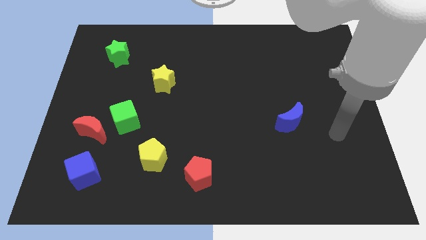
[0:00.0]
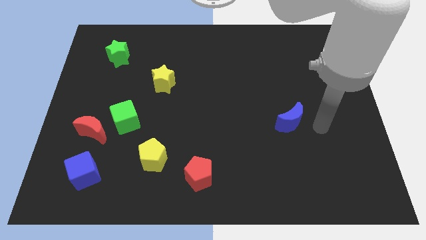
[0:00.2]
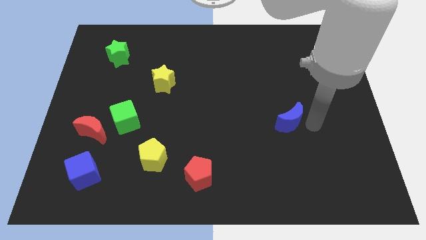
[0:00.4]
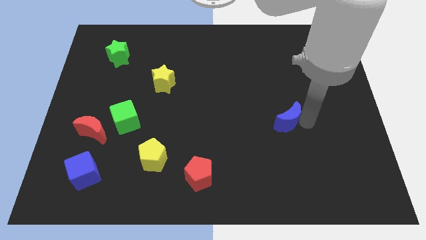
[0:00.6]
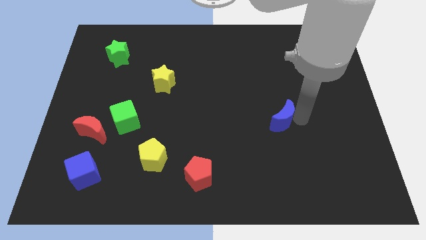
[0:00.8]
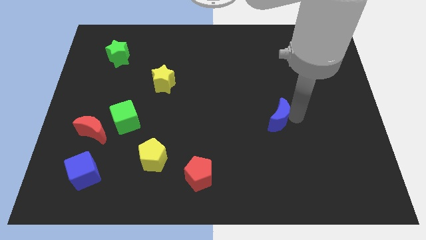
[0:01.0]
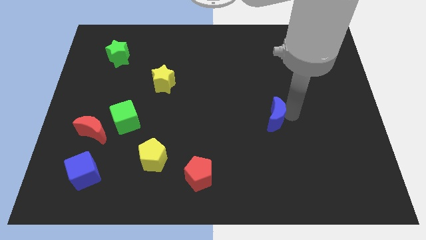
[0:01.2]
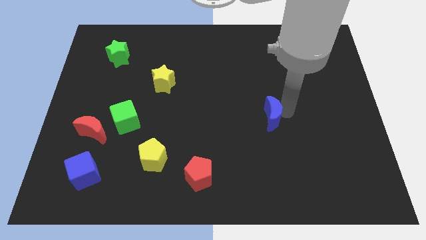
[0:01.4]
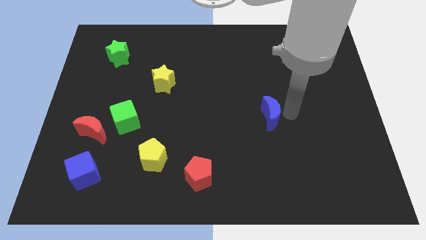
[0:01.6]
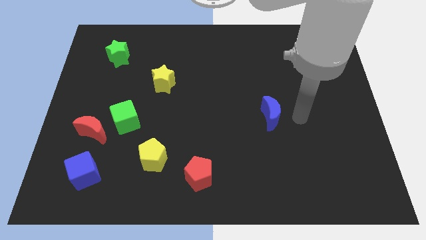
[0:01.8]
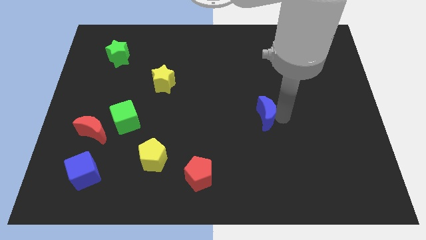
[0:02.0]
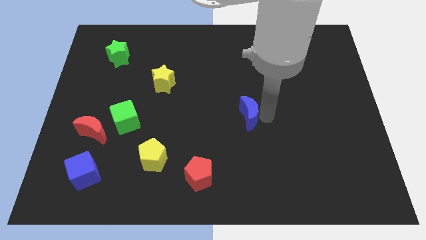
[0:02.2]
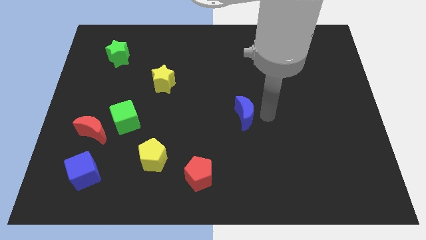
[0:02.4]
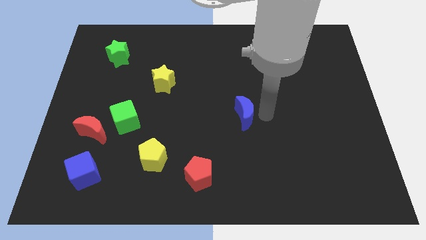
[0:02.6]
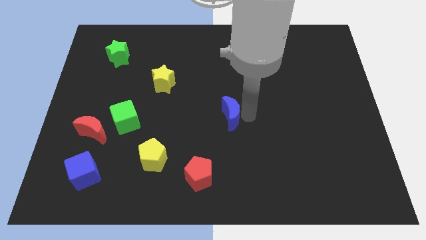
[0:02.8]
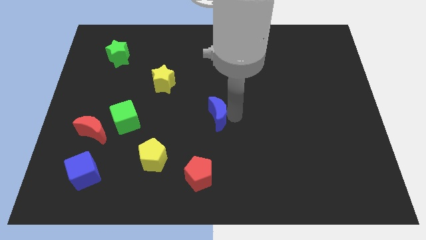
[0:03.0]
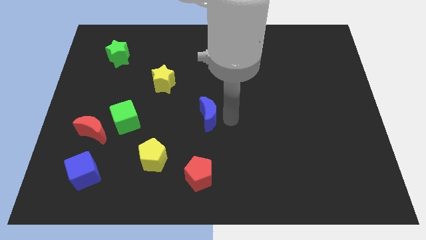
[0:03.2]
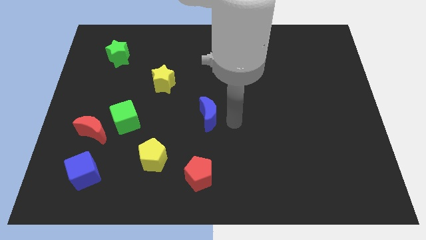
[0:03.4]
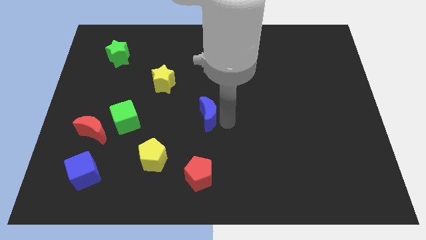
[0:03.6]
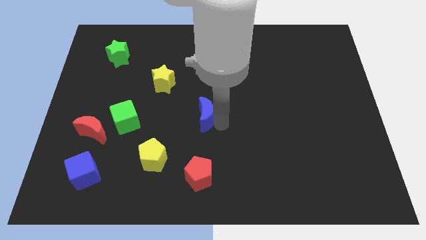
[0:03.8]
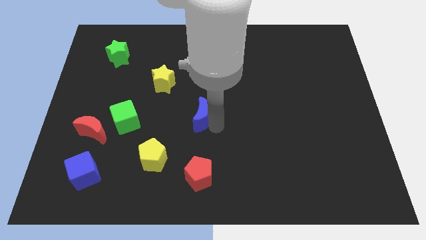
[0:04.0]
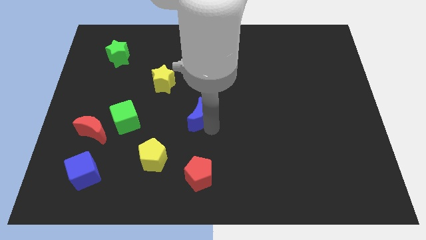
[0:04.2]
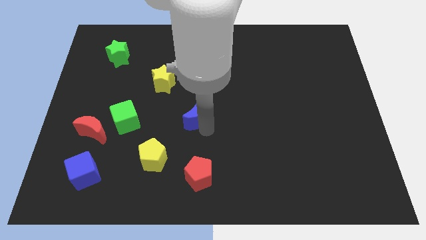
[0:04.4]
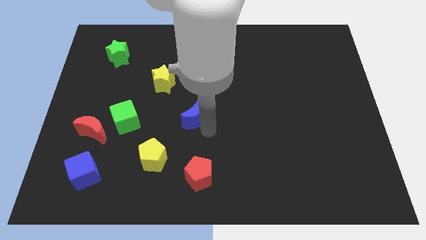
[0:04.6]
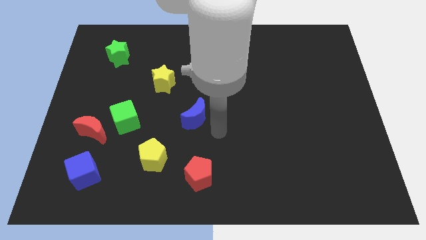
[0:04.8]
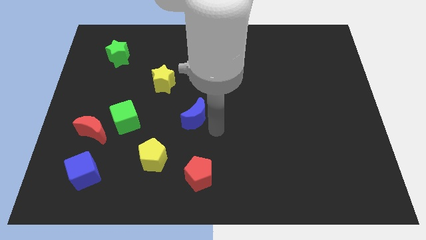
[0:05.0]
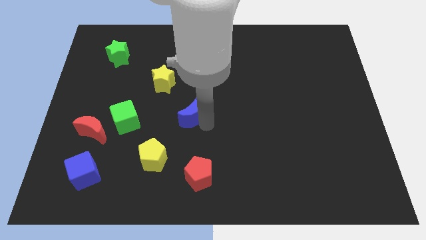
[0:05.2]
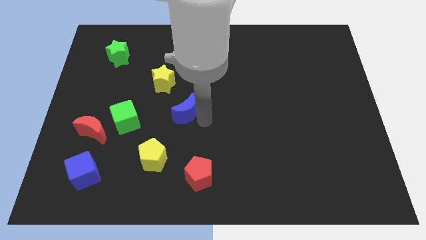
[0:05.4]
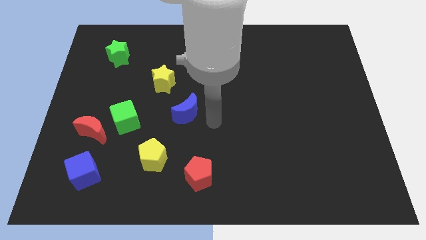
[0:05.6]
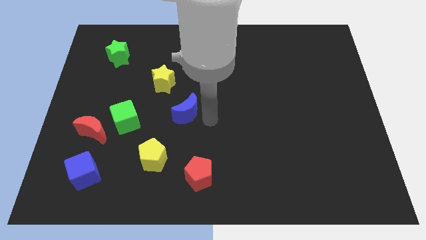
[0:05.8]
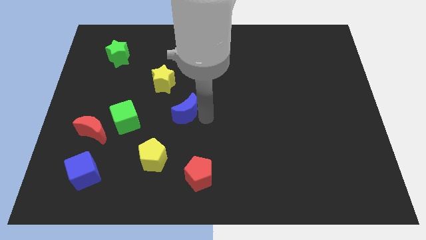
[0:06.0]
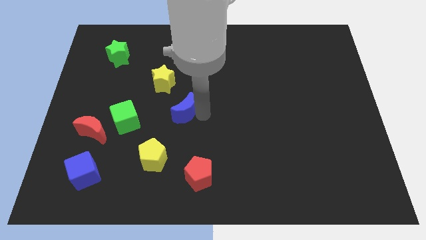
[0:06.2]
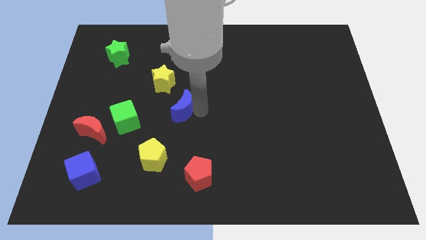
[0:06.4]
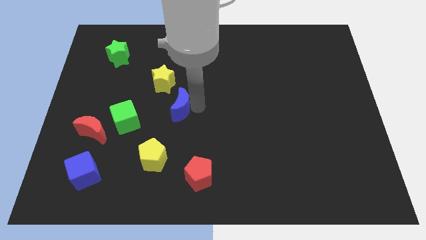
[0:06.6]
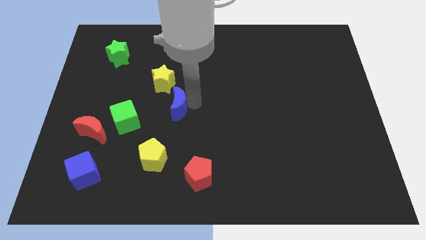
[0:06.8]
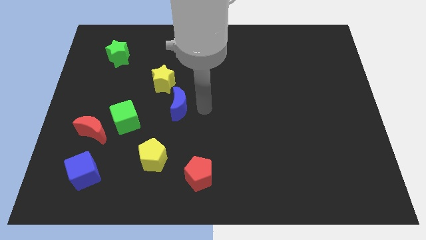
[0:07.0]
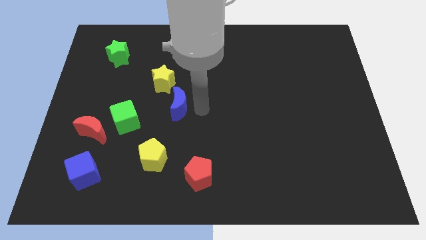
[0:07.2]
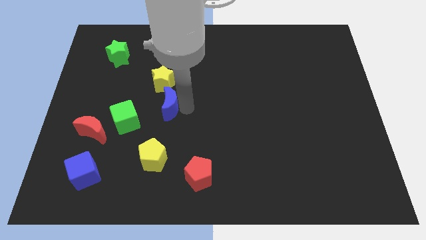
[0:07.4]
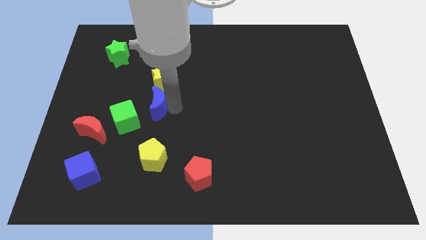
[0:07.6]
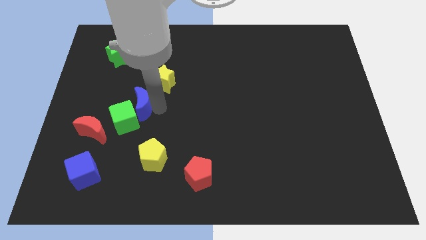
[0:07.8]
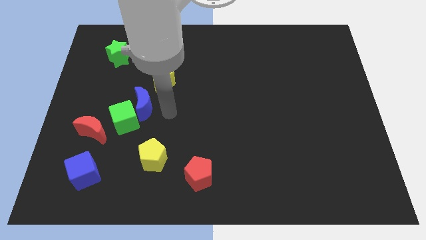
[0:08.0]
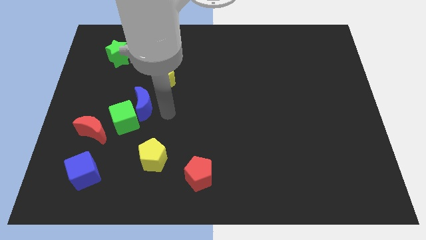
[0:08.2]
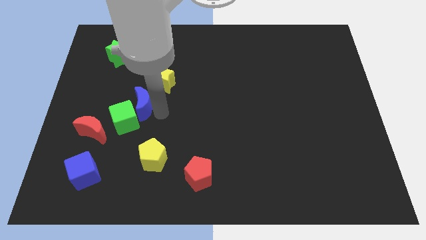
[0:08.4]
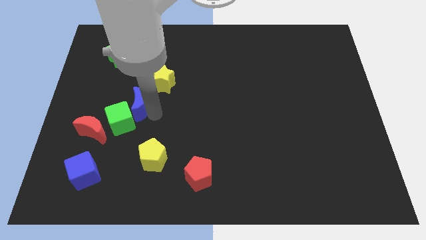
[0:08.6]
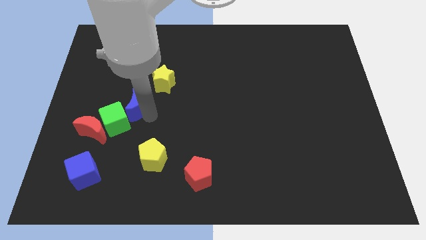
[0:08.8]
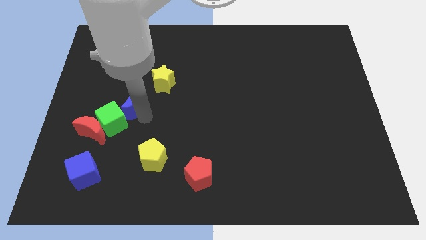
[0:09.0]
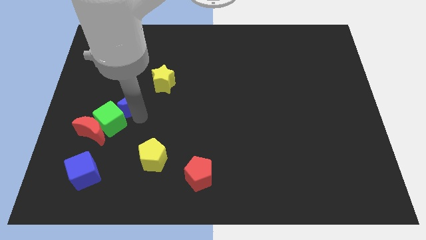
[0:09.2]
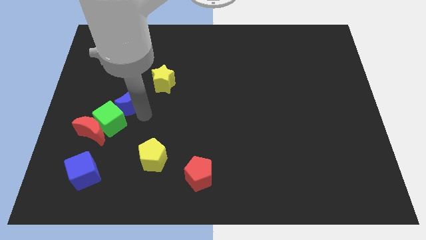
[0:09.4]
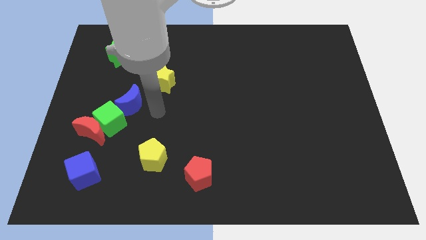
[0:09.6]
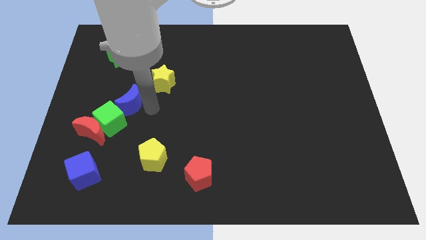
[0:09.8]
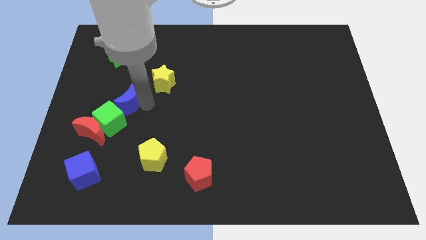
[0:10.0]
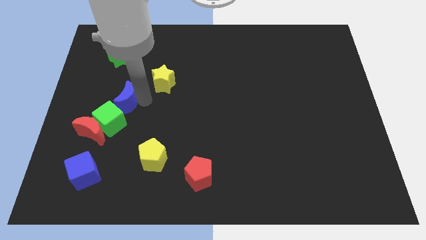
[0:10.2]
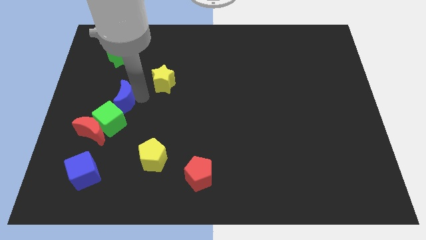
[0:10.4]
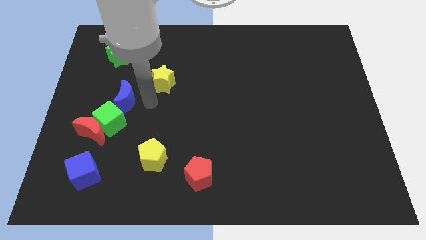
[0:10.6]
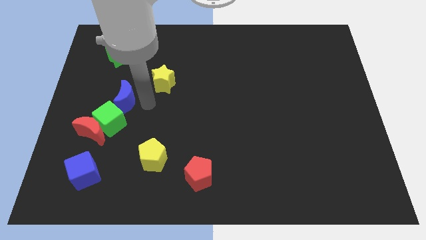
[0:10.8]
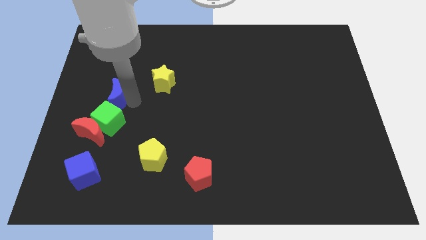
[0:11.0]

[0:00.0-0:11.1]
put the blue moon to the top of the red moon

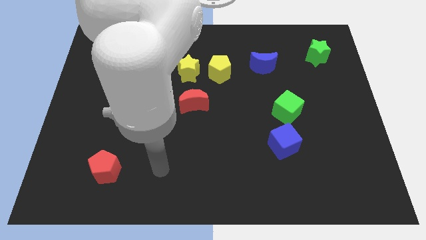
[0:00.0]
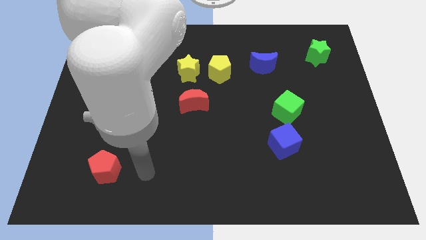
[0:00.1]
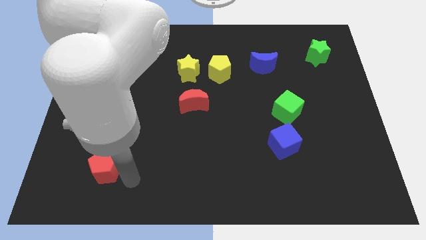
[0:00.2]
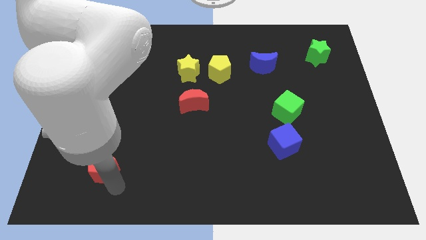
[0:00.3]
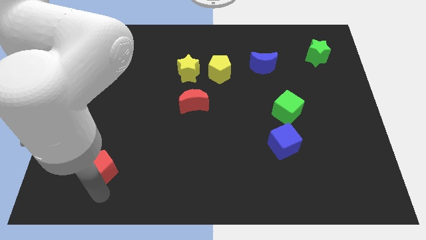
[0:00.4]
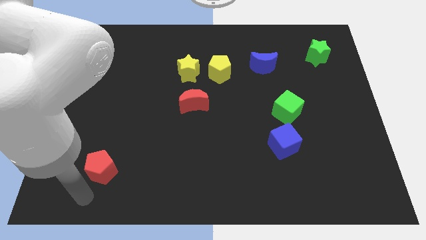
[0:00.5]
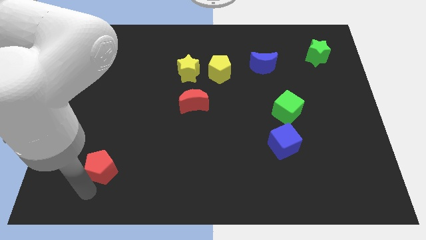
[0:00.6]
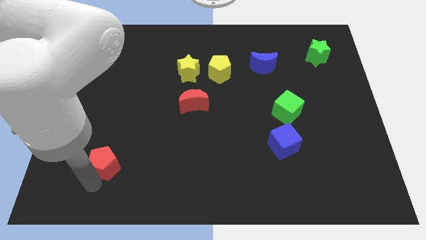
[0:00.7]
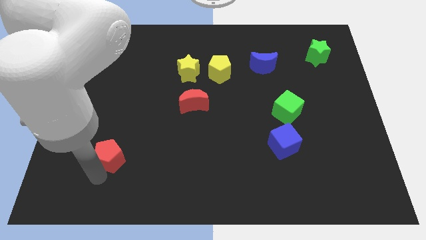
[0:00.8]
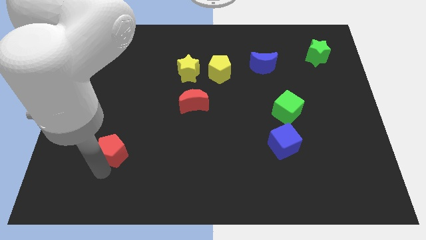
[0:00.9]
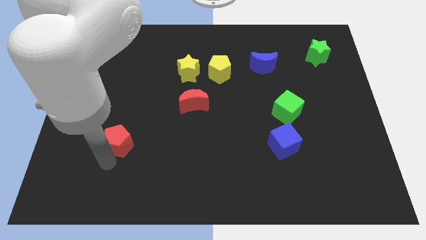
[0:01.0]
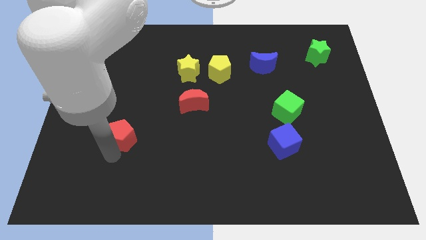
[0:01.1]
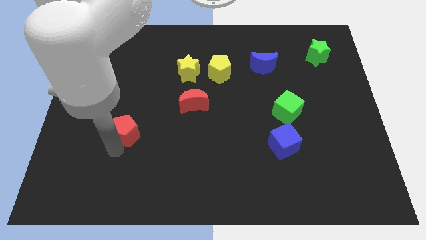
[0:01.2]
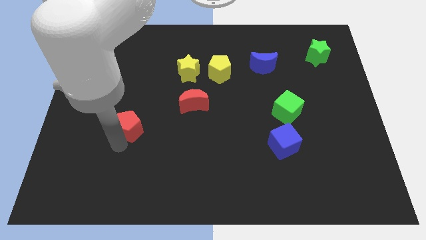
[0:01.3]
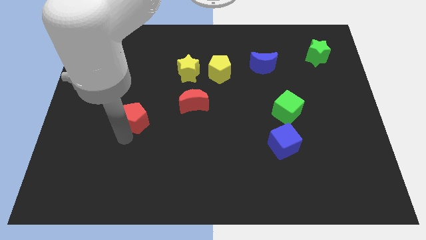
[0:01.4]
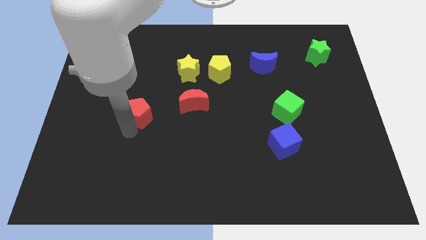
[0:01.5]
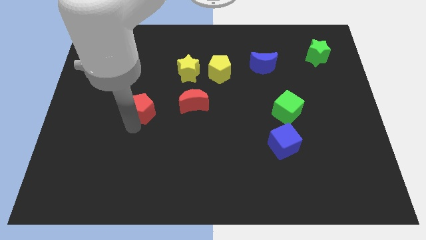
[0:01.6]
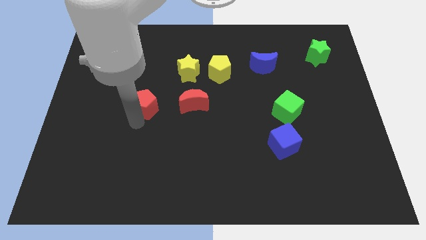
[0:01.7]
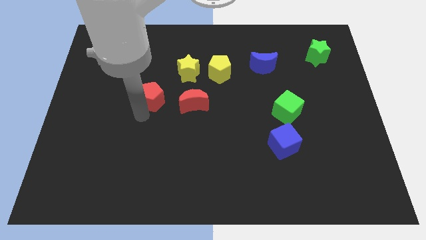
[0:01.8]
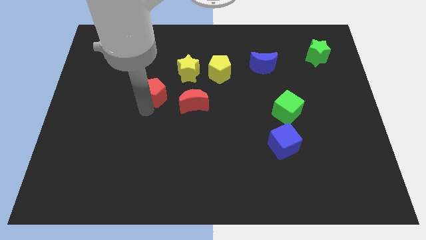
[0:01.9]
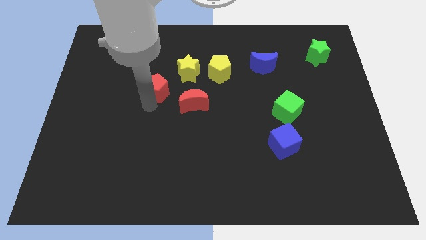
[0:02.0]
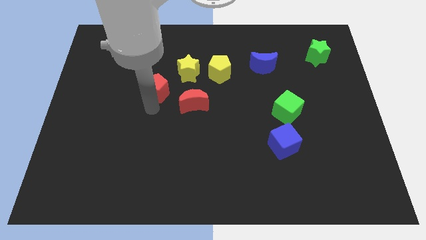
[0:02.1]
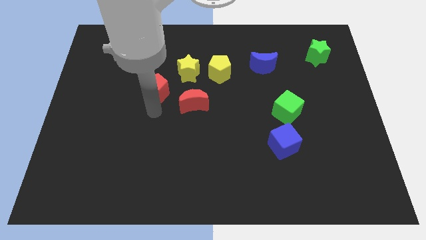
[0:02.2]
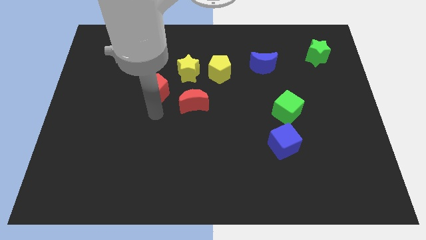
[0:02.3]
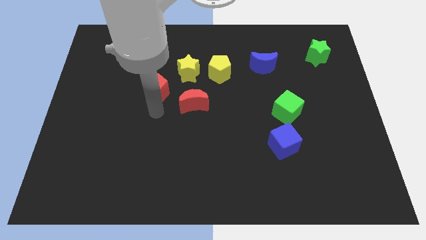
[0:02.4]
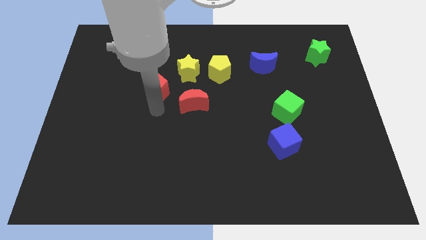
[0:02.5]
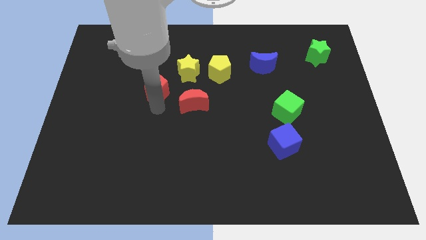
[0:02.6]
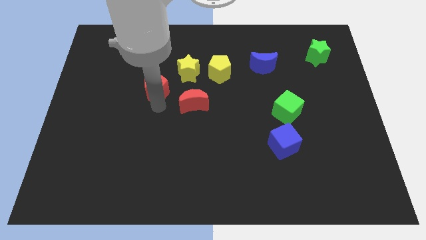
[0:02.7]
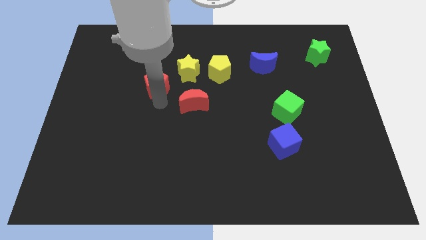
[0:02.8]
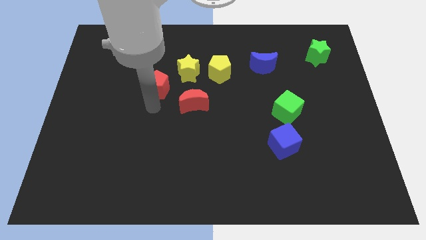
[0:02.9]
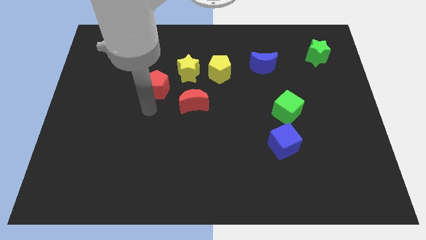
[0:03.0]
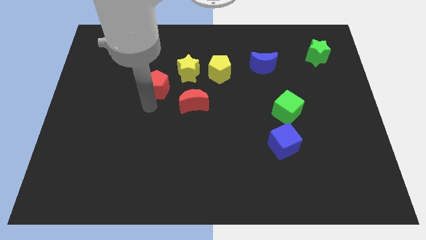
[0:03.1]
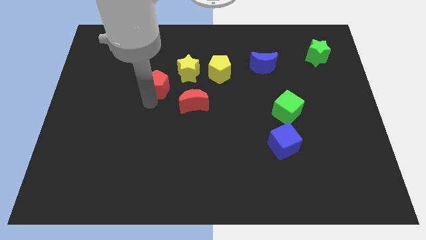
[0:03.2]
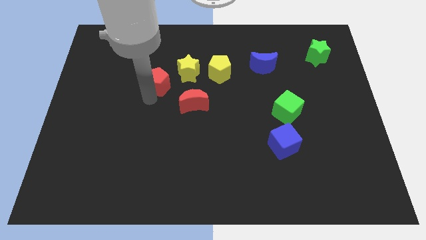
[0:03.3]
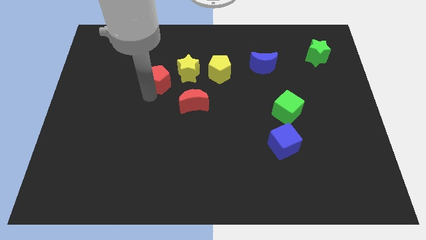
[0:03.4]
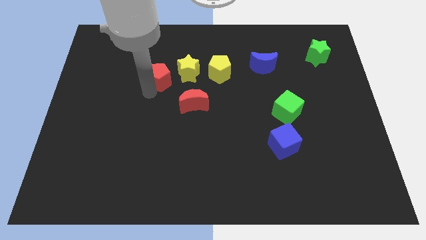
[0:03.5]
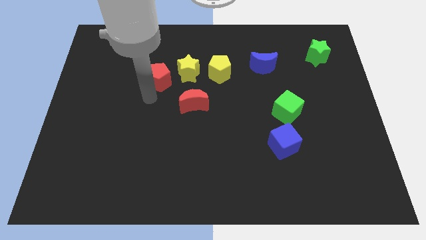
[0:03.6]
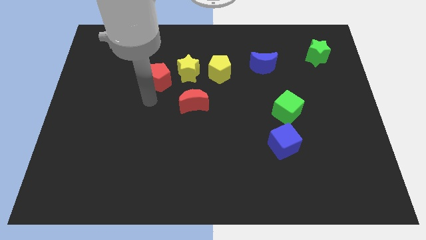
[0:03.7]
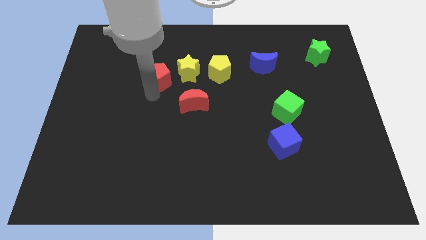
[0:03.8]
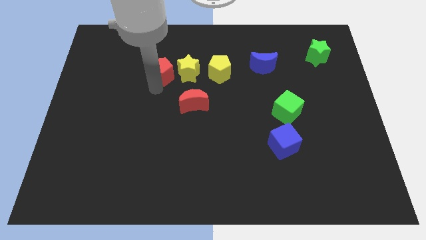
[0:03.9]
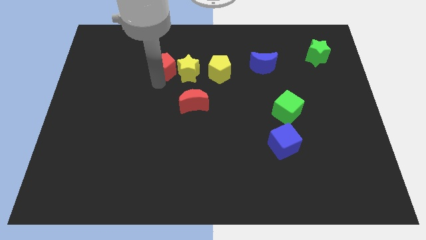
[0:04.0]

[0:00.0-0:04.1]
move the red pentagon to the top left of the yellow star
